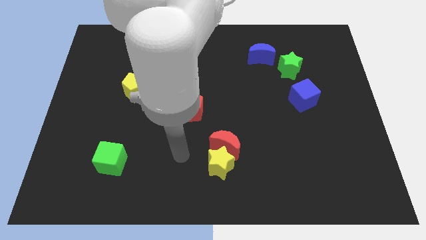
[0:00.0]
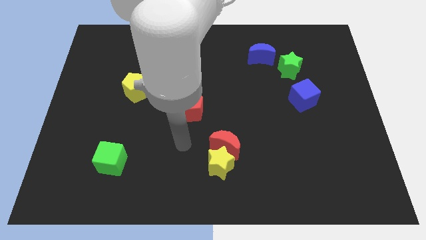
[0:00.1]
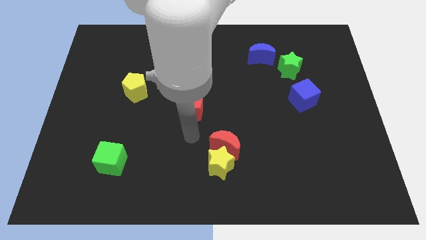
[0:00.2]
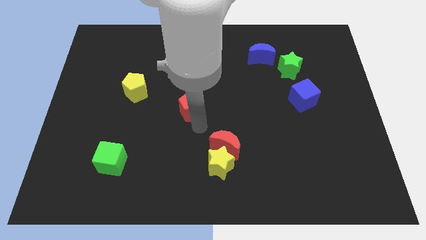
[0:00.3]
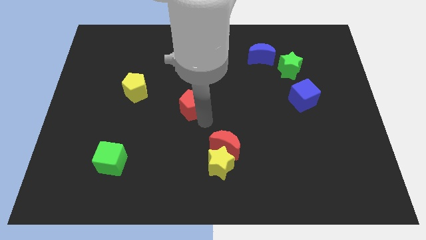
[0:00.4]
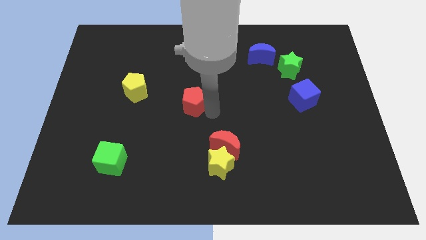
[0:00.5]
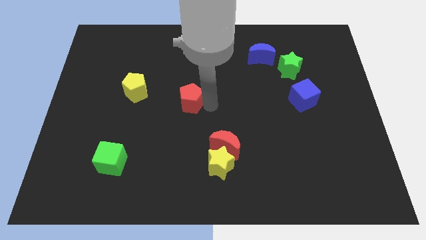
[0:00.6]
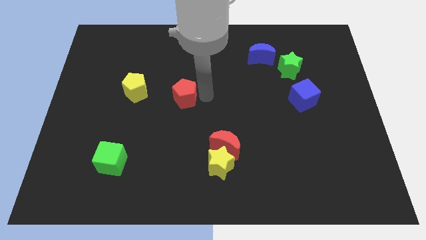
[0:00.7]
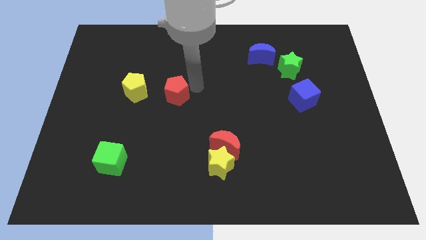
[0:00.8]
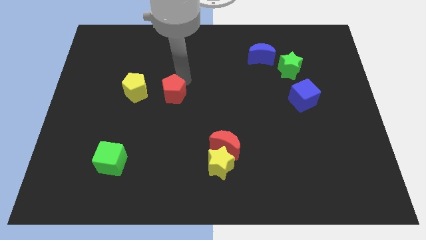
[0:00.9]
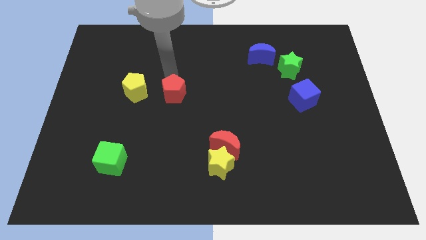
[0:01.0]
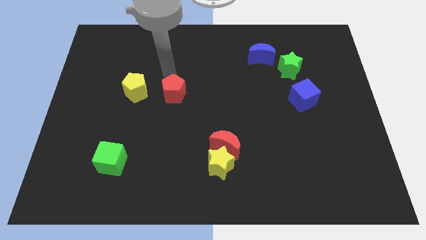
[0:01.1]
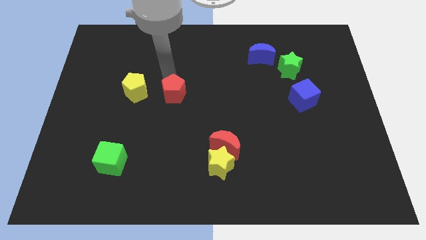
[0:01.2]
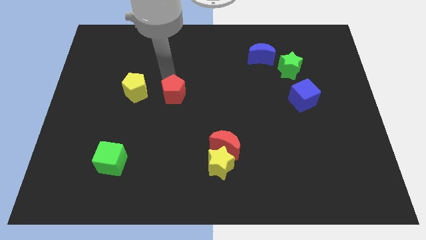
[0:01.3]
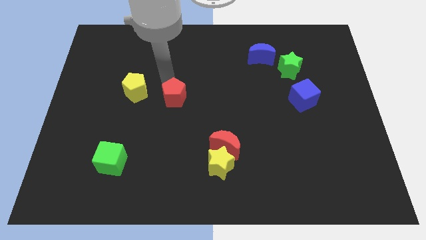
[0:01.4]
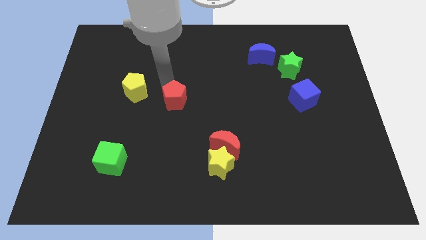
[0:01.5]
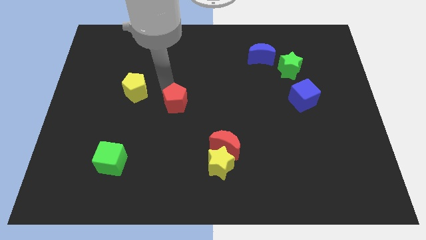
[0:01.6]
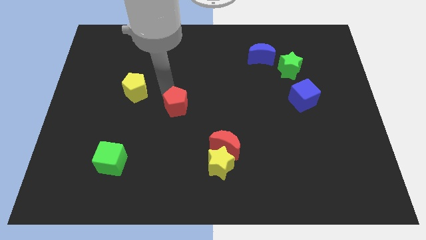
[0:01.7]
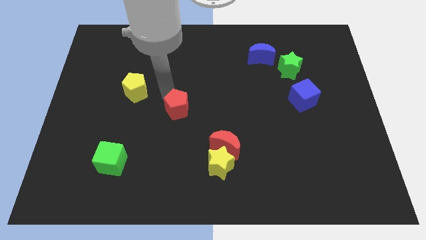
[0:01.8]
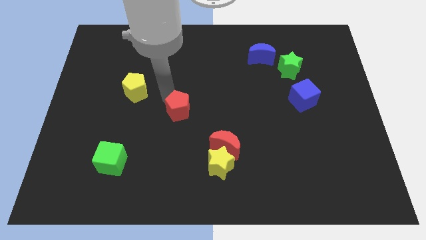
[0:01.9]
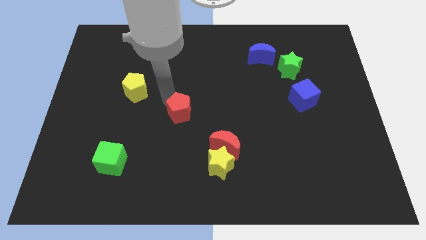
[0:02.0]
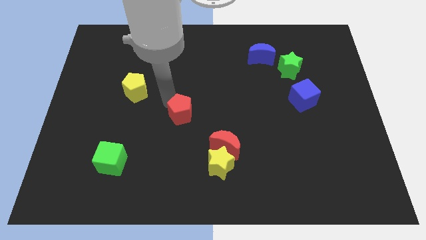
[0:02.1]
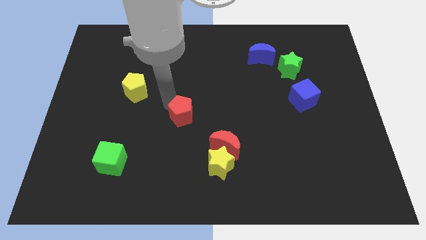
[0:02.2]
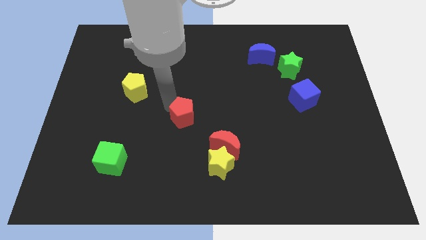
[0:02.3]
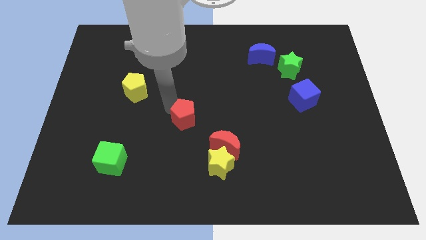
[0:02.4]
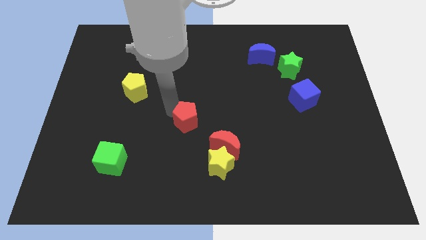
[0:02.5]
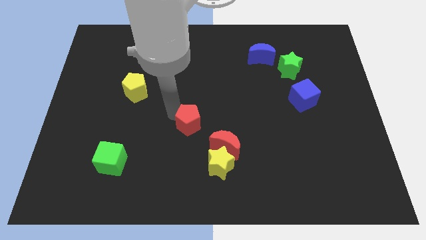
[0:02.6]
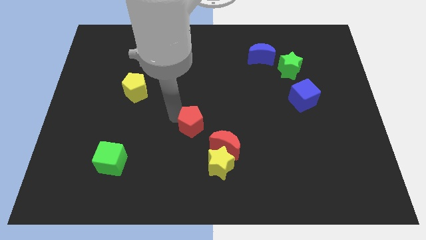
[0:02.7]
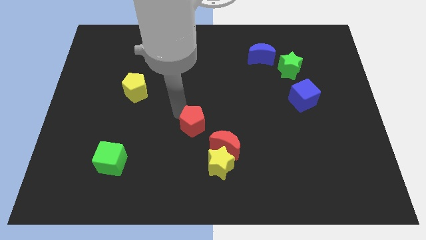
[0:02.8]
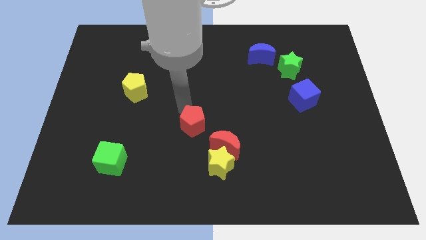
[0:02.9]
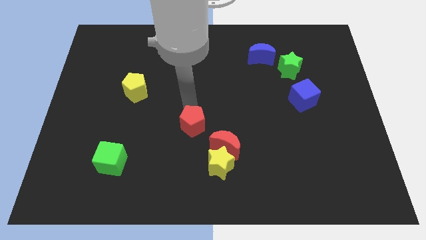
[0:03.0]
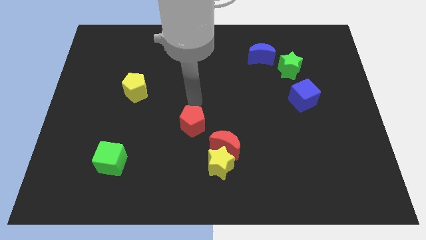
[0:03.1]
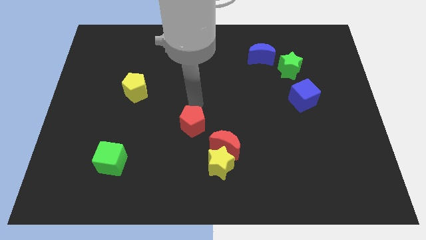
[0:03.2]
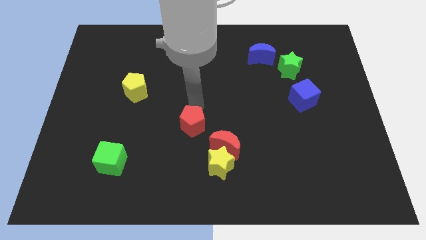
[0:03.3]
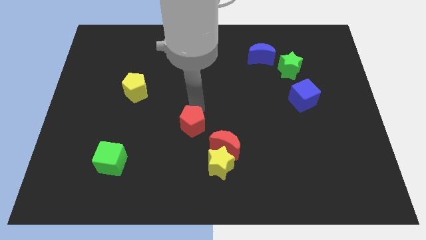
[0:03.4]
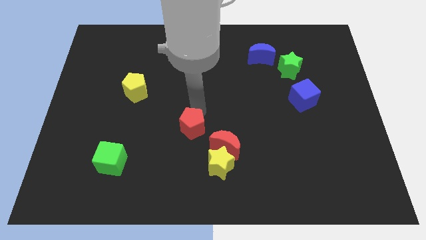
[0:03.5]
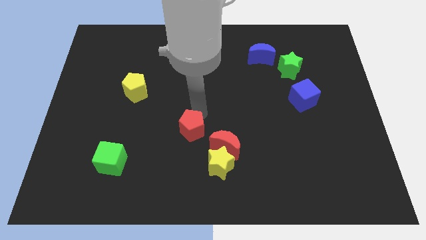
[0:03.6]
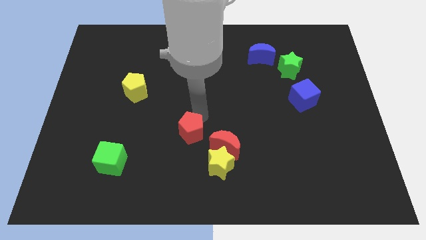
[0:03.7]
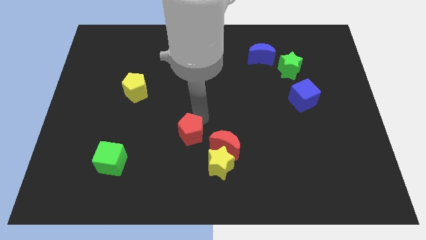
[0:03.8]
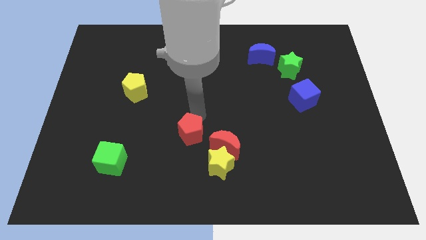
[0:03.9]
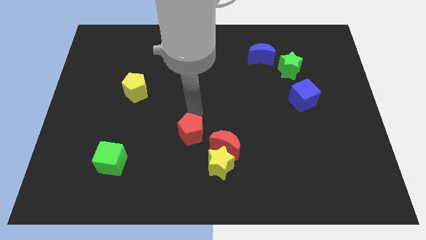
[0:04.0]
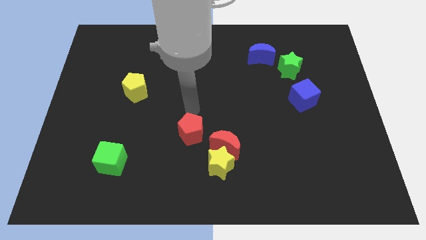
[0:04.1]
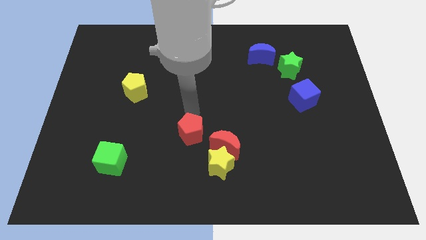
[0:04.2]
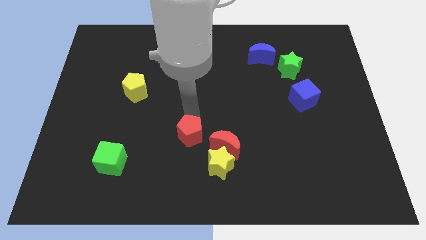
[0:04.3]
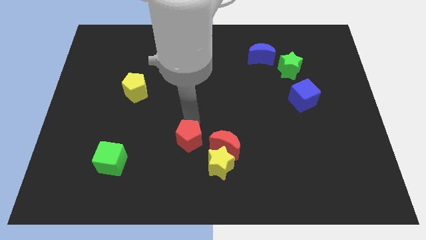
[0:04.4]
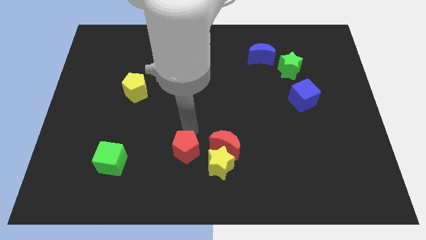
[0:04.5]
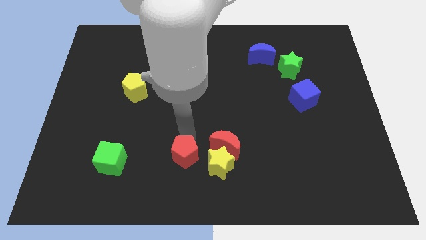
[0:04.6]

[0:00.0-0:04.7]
put the red pentagon diagonally down and to the left of the red moon

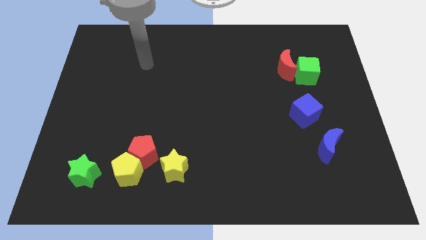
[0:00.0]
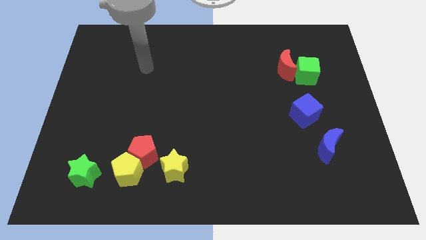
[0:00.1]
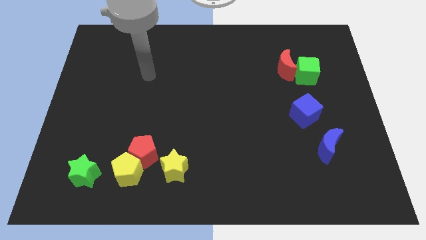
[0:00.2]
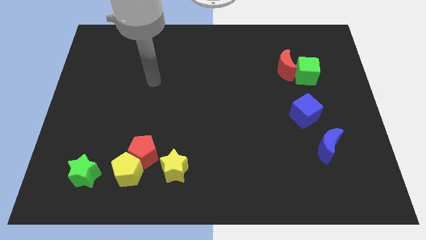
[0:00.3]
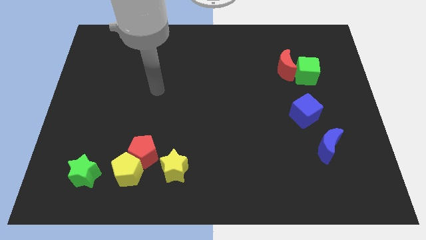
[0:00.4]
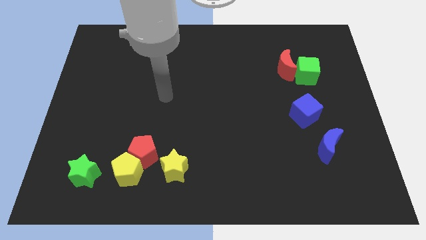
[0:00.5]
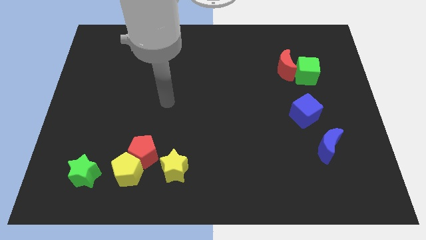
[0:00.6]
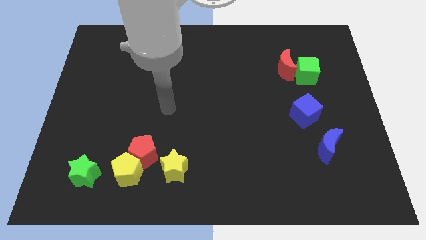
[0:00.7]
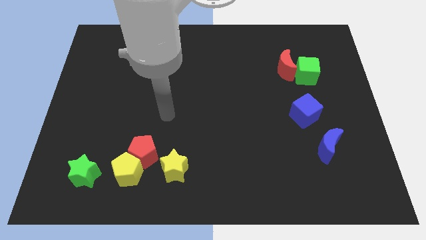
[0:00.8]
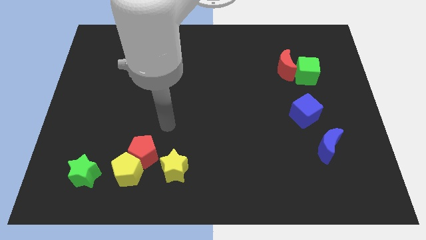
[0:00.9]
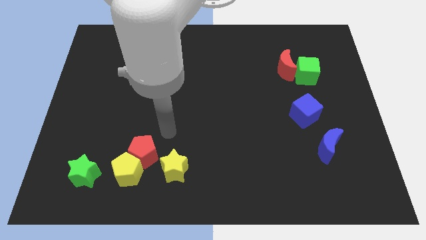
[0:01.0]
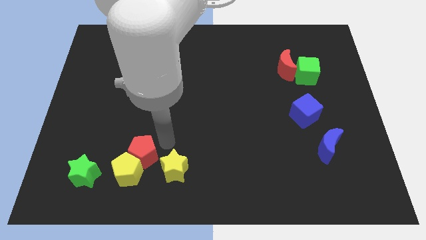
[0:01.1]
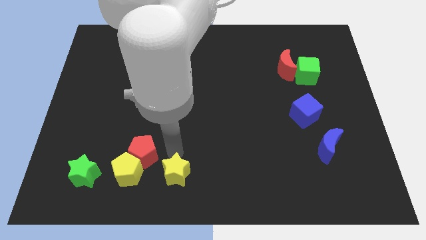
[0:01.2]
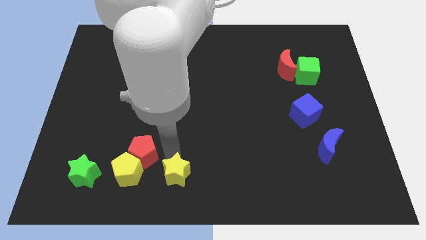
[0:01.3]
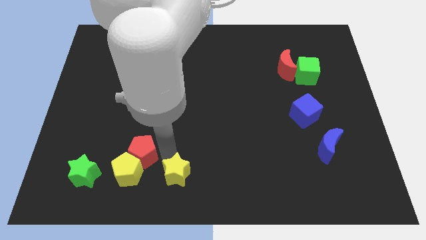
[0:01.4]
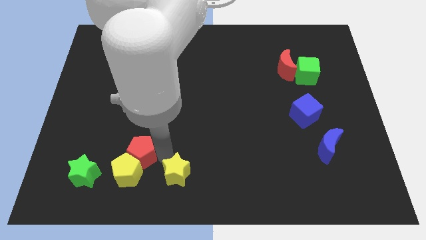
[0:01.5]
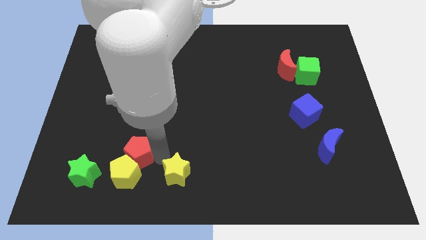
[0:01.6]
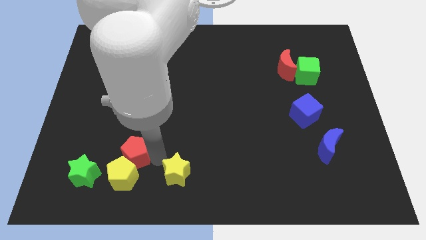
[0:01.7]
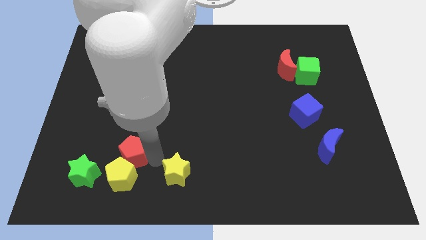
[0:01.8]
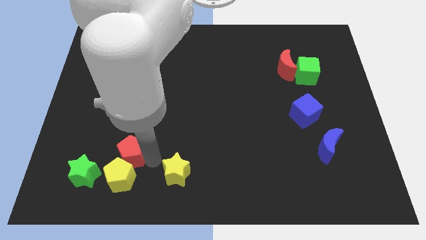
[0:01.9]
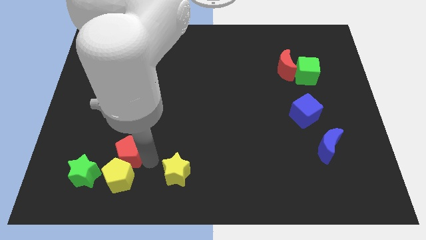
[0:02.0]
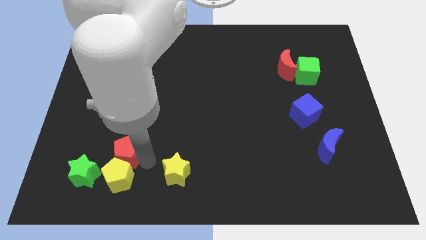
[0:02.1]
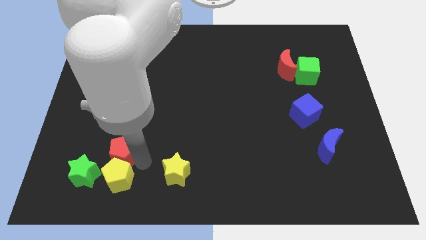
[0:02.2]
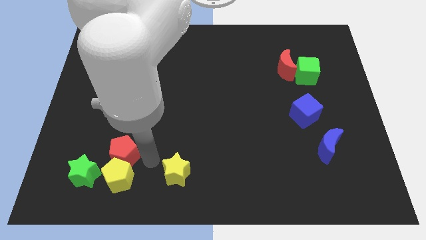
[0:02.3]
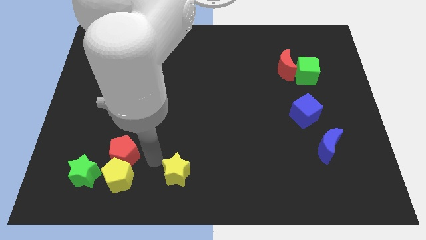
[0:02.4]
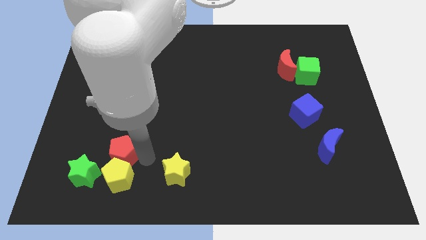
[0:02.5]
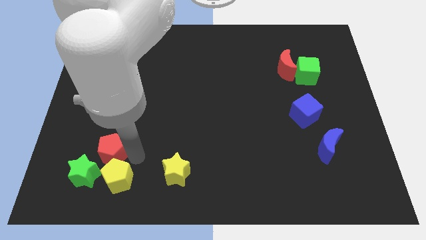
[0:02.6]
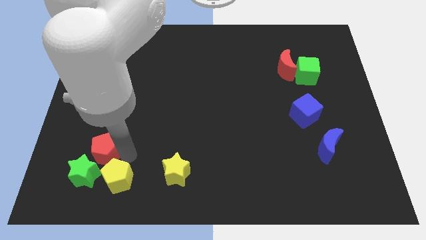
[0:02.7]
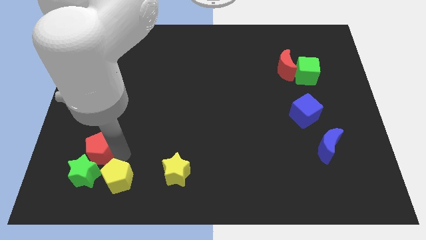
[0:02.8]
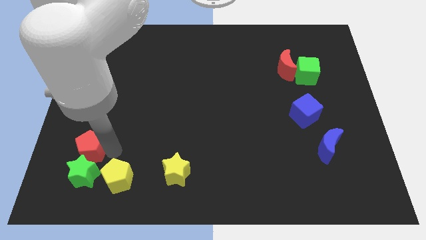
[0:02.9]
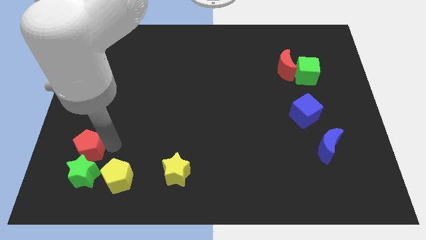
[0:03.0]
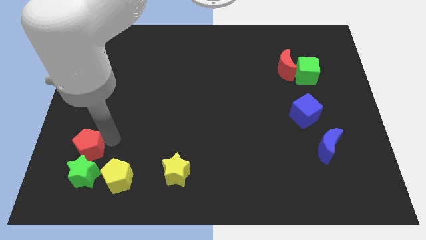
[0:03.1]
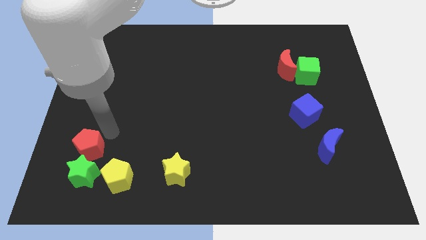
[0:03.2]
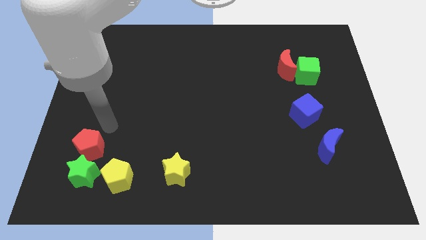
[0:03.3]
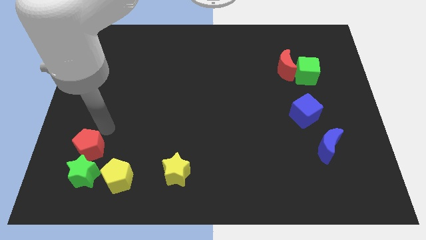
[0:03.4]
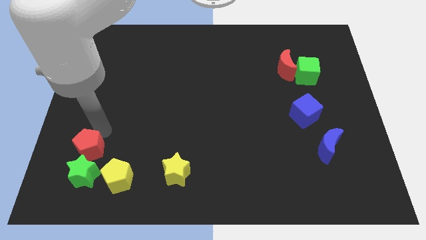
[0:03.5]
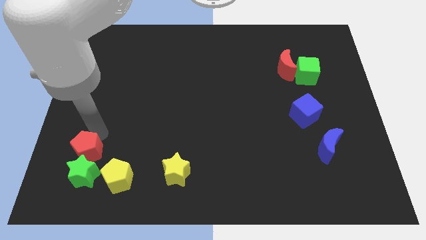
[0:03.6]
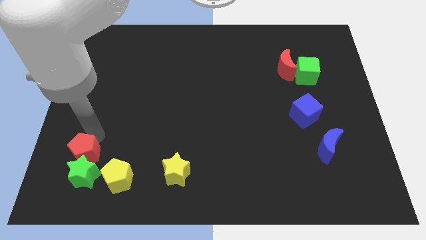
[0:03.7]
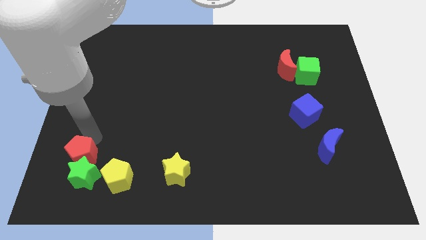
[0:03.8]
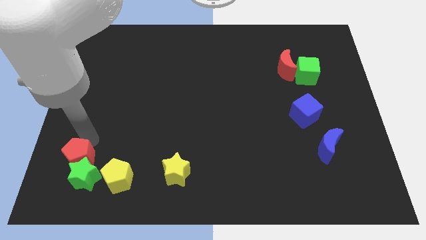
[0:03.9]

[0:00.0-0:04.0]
move the red pentagon to the left of the yellow pentagon
